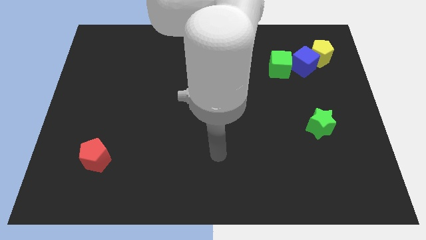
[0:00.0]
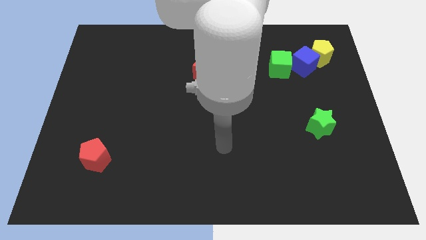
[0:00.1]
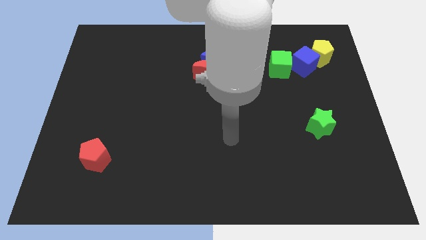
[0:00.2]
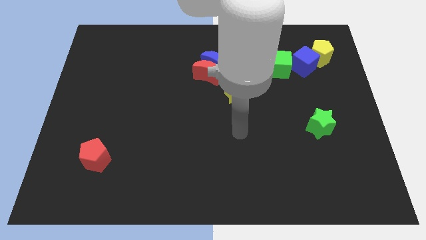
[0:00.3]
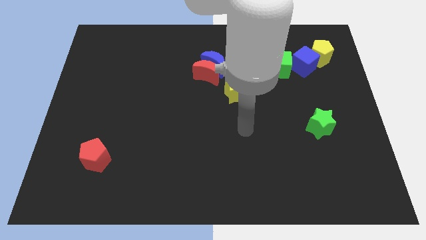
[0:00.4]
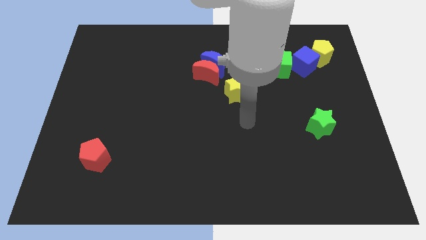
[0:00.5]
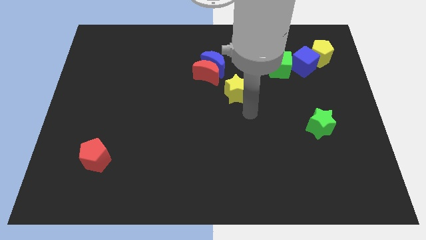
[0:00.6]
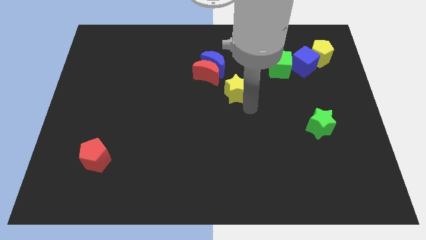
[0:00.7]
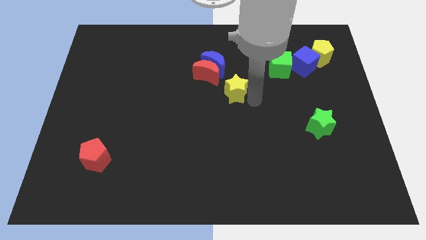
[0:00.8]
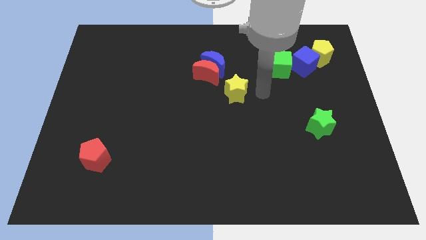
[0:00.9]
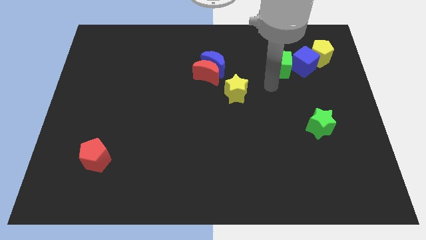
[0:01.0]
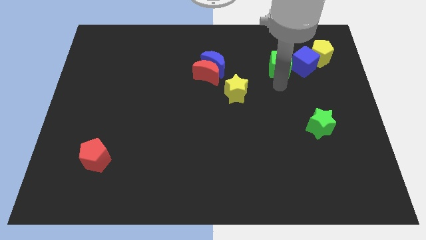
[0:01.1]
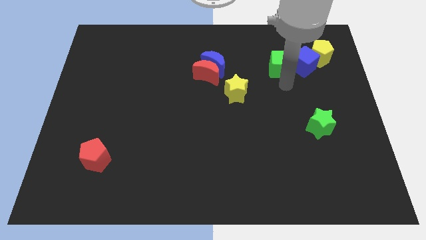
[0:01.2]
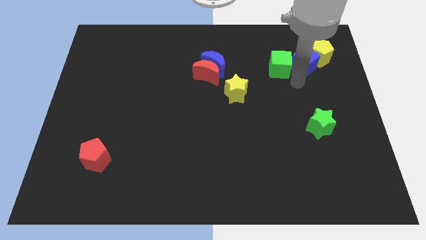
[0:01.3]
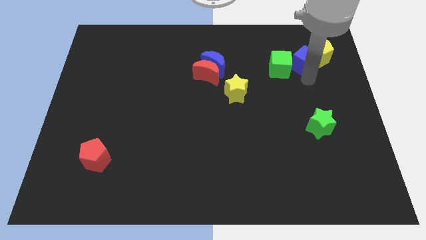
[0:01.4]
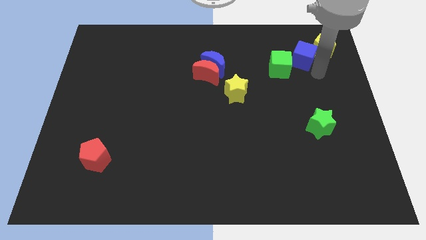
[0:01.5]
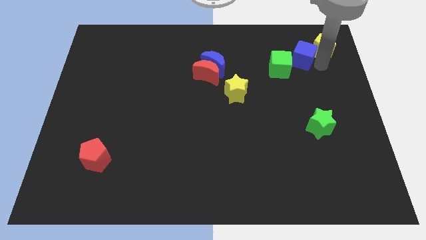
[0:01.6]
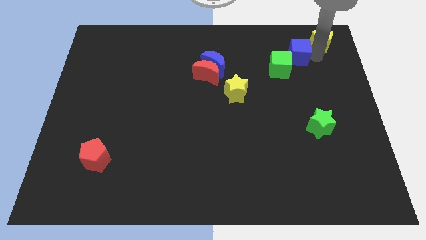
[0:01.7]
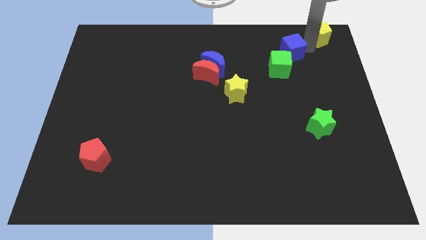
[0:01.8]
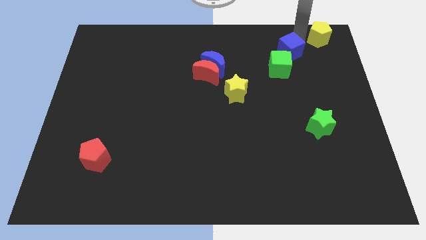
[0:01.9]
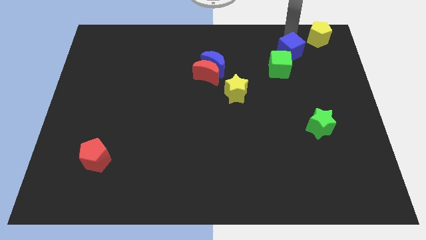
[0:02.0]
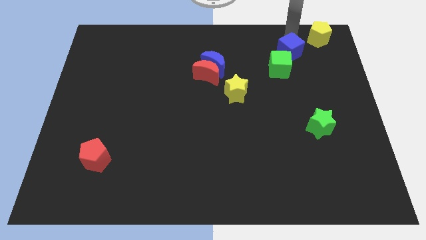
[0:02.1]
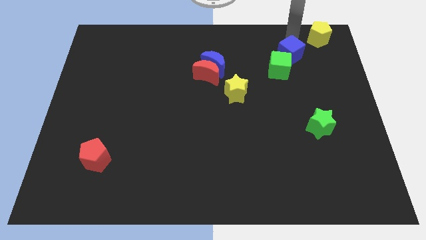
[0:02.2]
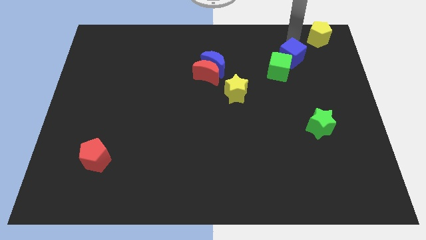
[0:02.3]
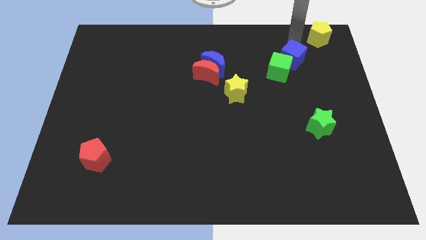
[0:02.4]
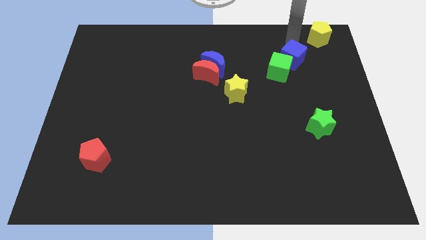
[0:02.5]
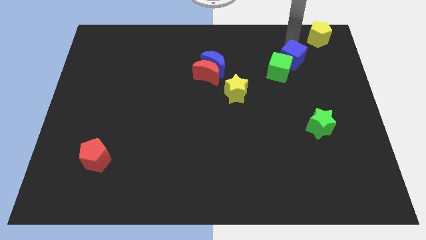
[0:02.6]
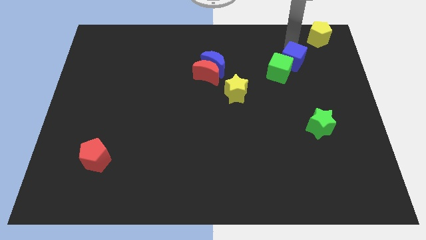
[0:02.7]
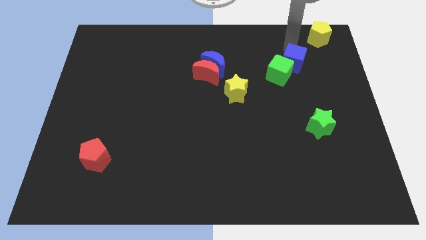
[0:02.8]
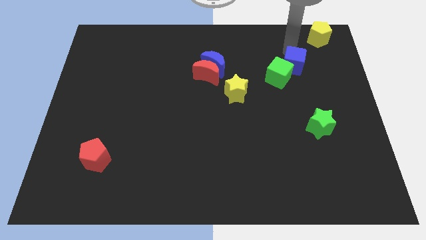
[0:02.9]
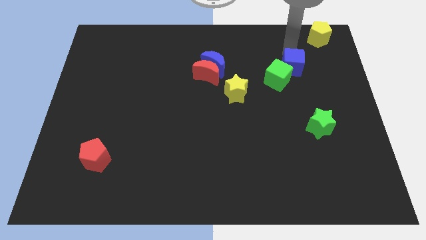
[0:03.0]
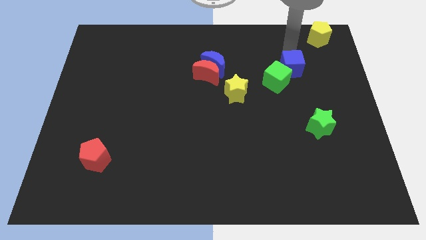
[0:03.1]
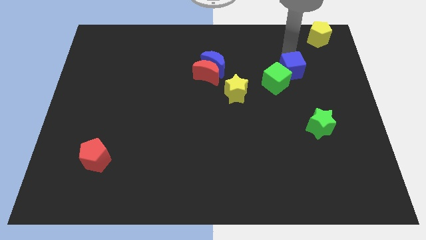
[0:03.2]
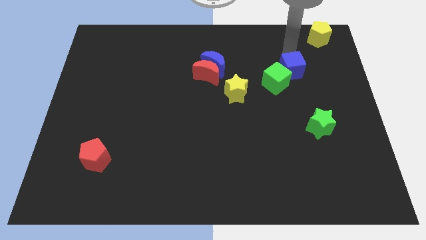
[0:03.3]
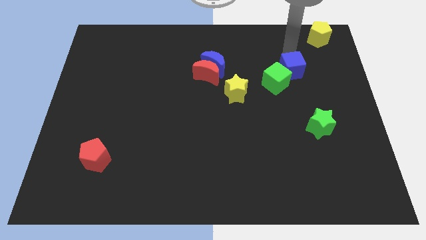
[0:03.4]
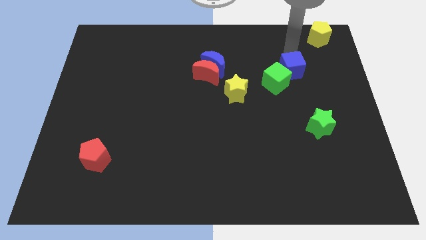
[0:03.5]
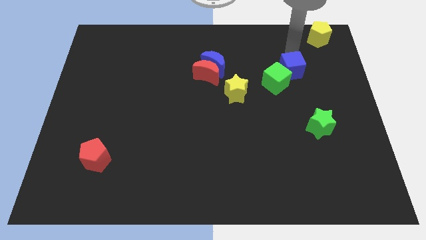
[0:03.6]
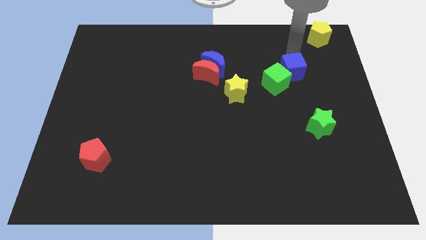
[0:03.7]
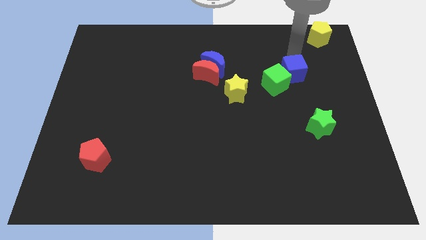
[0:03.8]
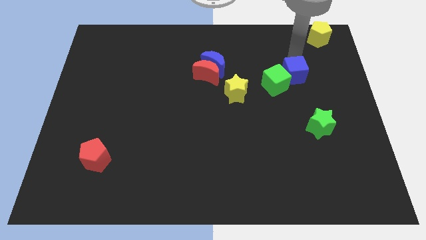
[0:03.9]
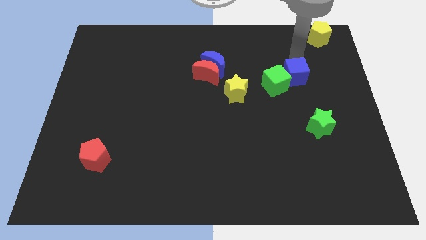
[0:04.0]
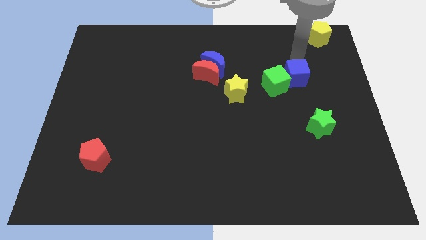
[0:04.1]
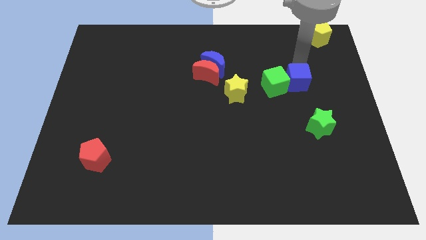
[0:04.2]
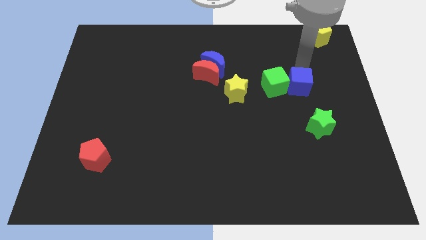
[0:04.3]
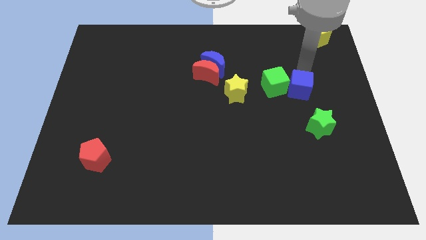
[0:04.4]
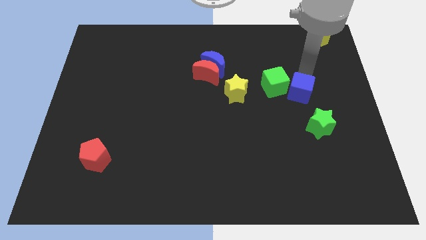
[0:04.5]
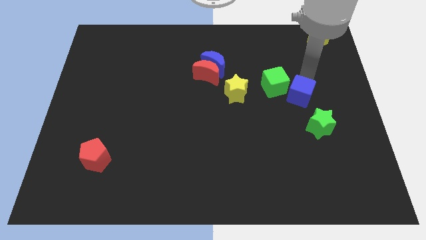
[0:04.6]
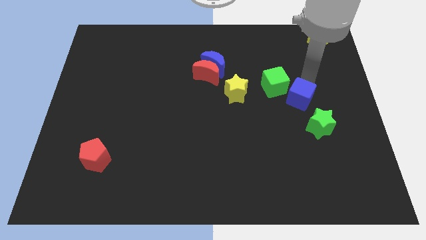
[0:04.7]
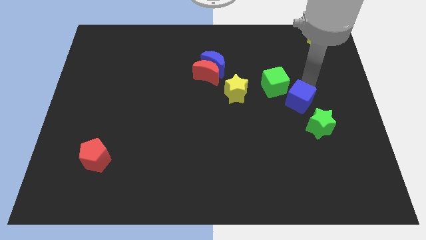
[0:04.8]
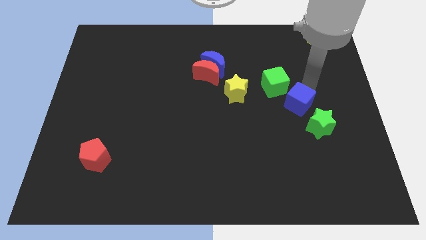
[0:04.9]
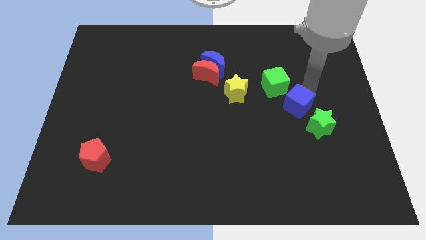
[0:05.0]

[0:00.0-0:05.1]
move the blue cube below the green cube
